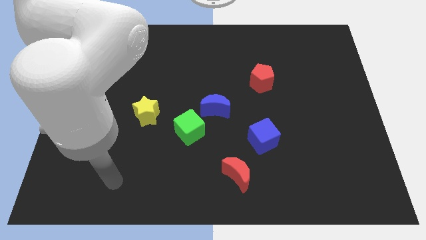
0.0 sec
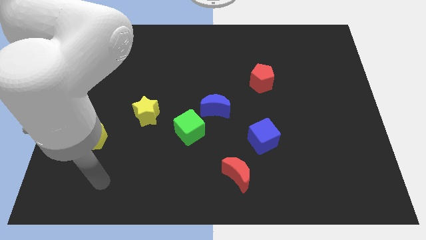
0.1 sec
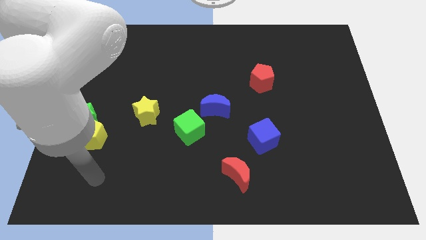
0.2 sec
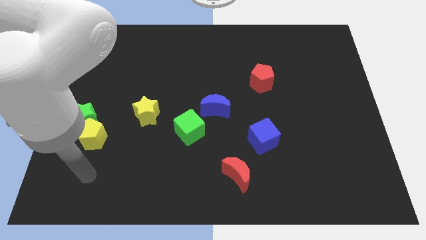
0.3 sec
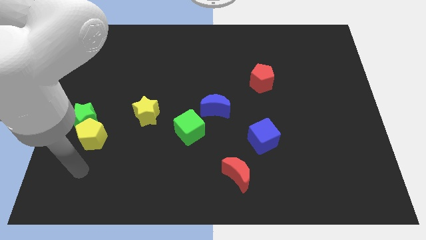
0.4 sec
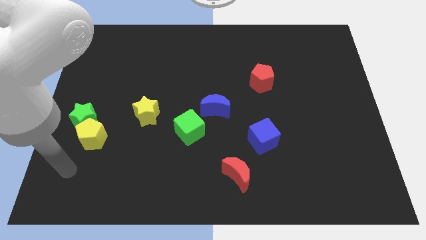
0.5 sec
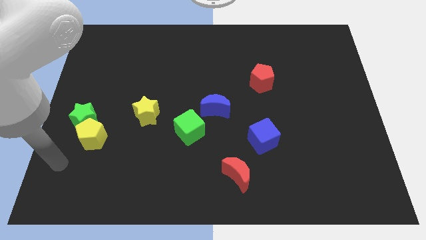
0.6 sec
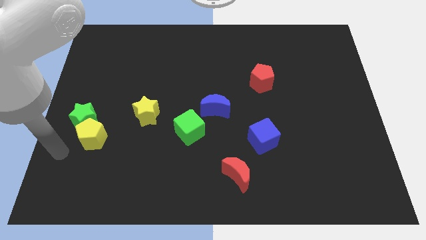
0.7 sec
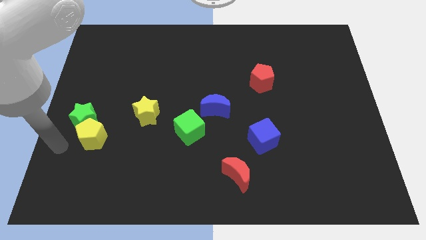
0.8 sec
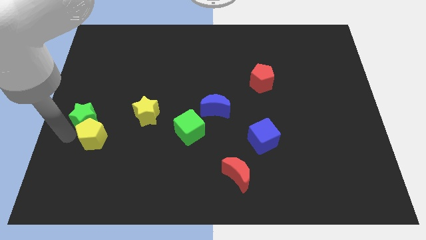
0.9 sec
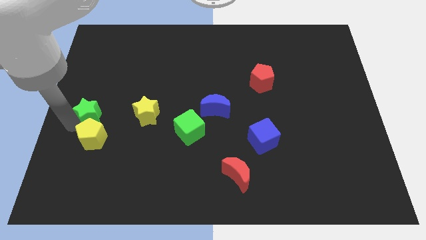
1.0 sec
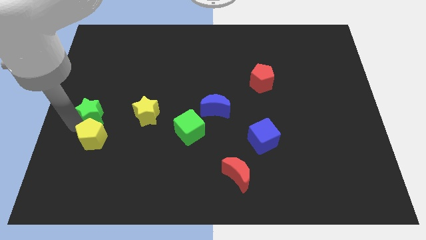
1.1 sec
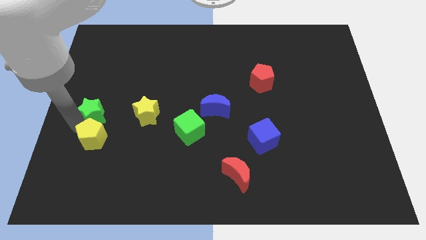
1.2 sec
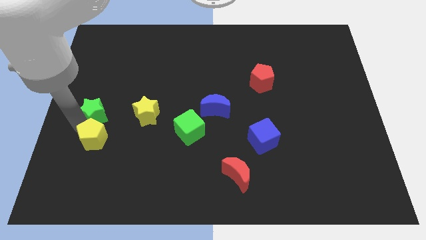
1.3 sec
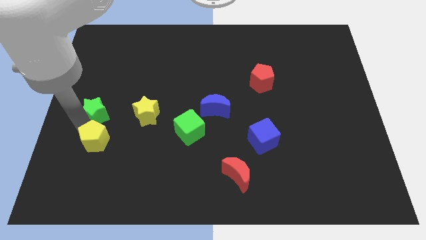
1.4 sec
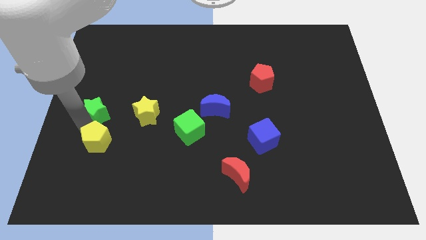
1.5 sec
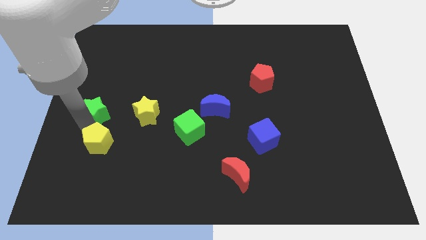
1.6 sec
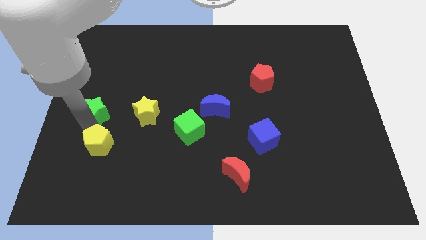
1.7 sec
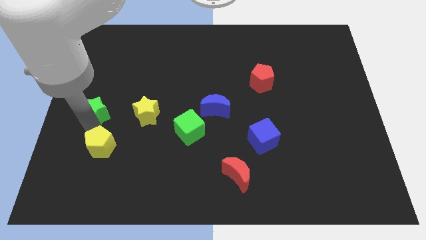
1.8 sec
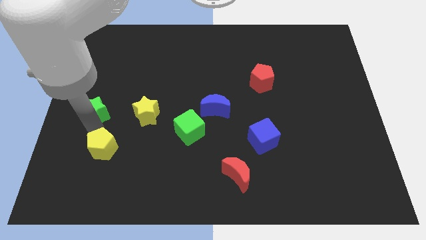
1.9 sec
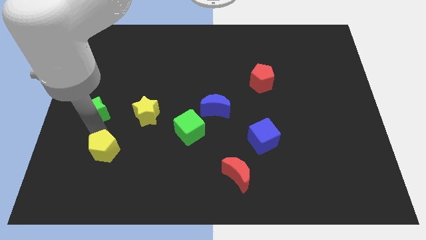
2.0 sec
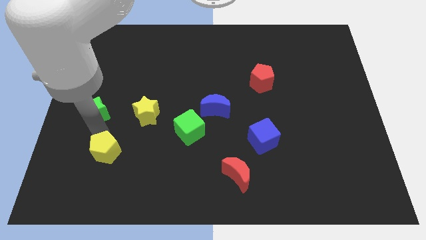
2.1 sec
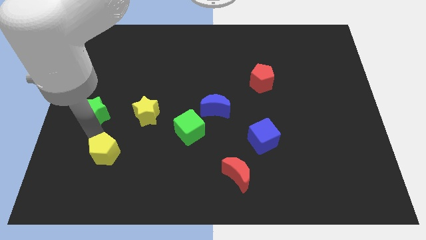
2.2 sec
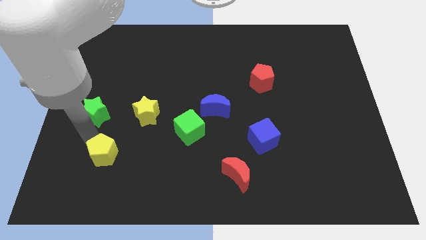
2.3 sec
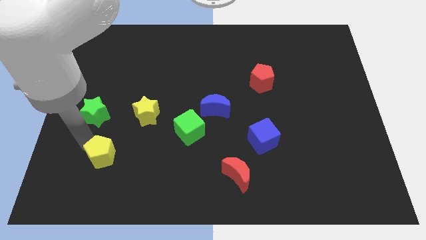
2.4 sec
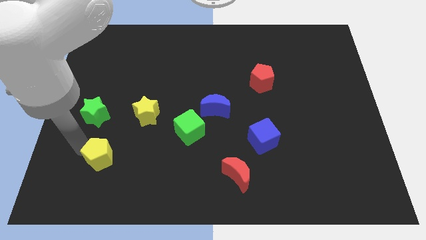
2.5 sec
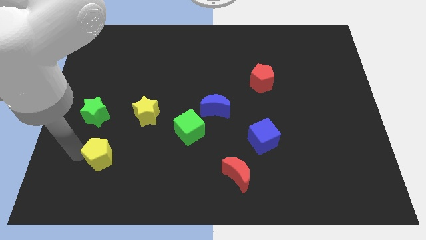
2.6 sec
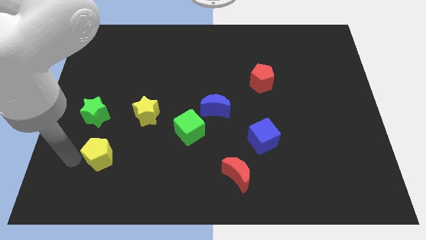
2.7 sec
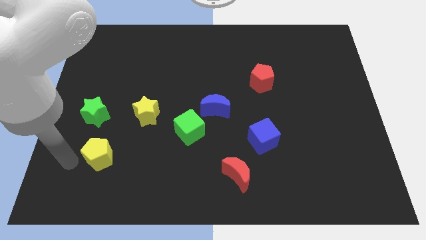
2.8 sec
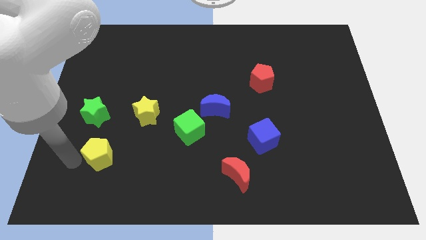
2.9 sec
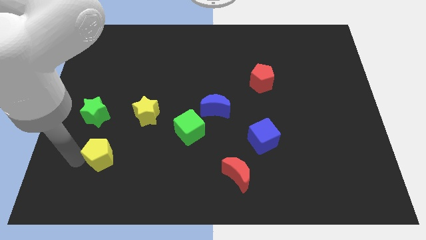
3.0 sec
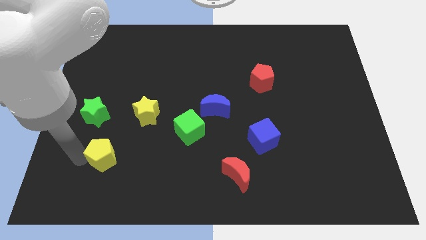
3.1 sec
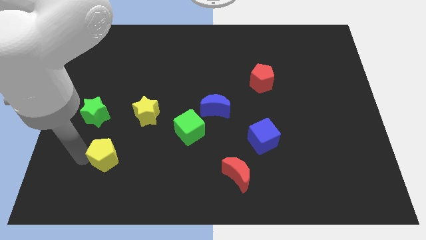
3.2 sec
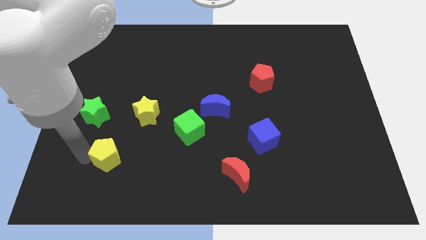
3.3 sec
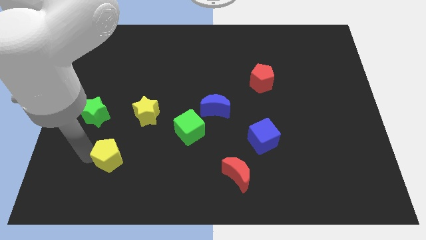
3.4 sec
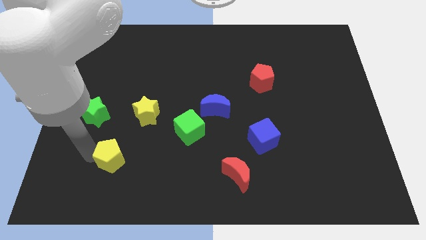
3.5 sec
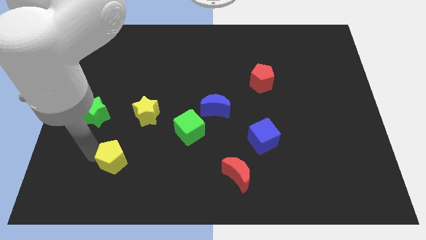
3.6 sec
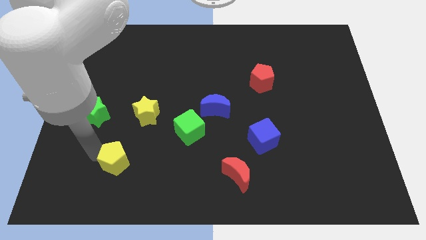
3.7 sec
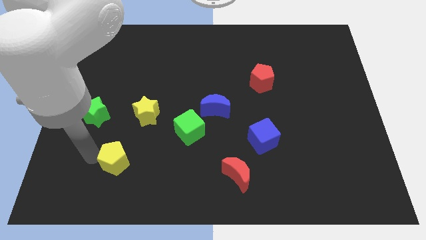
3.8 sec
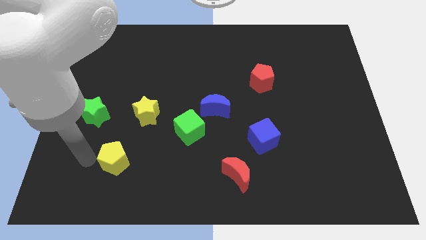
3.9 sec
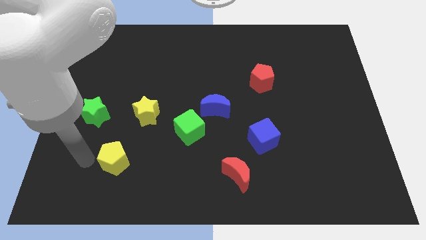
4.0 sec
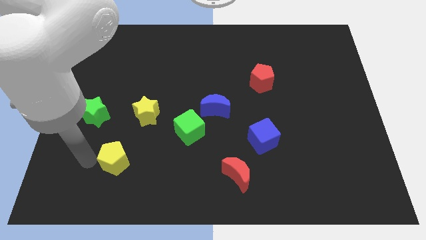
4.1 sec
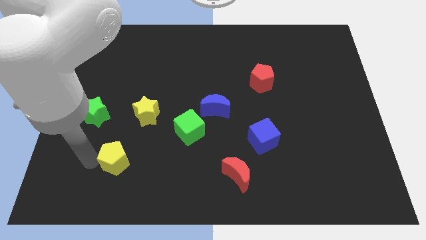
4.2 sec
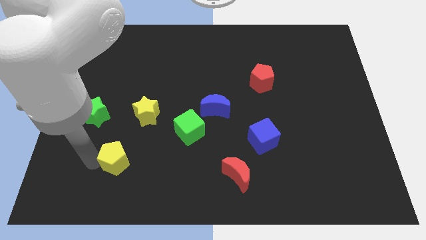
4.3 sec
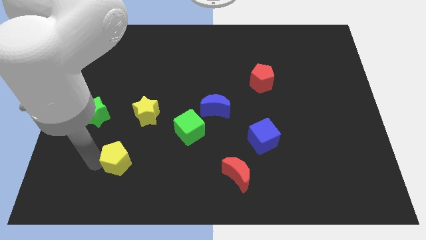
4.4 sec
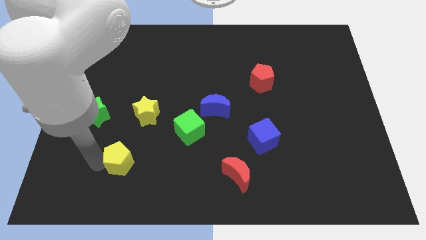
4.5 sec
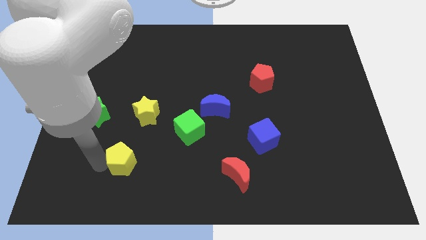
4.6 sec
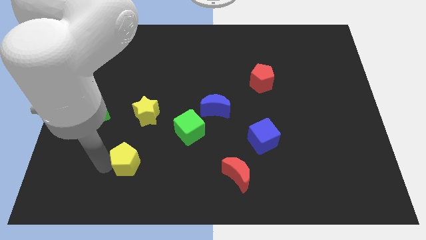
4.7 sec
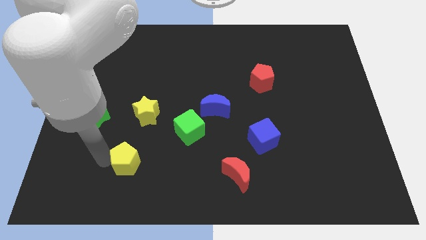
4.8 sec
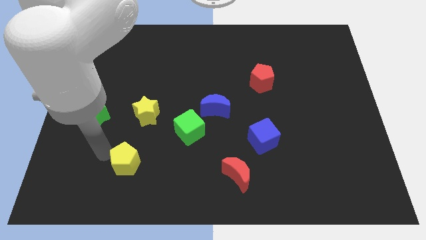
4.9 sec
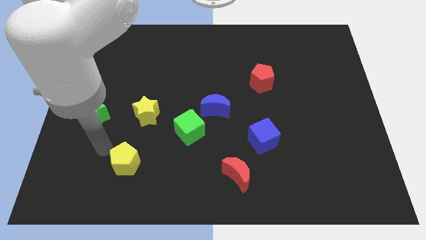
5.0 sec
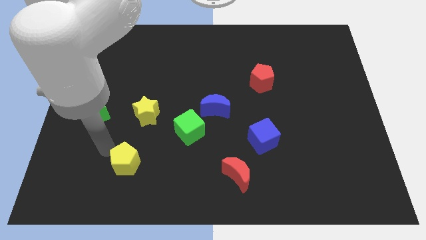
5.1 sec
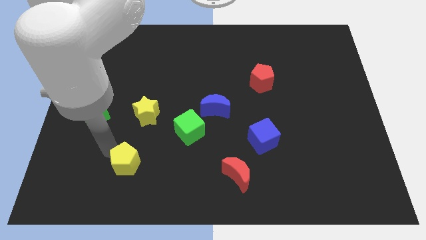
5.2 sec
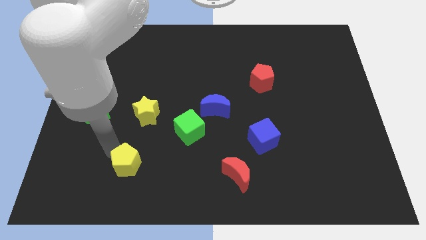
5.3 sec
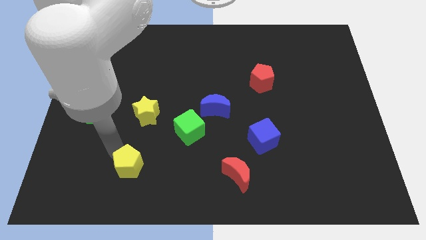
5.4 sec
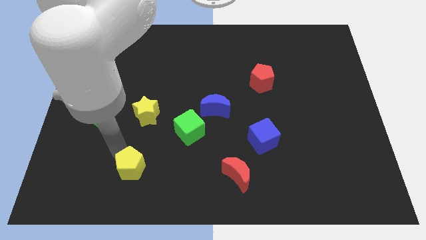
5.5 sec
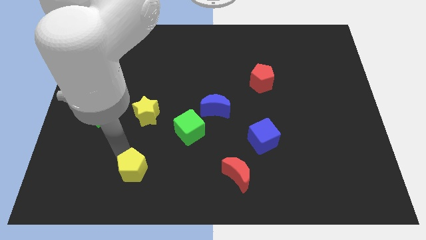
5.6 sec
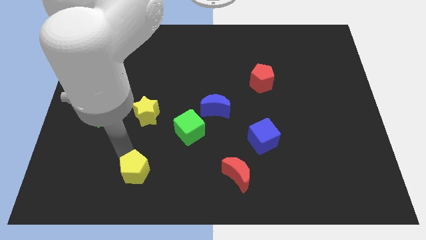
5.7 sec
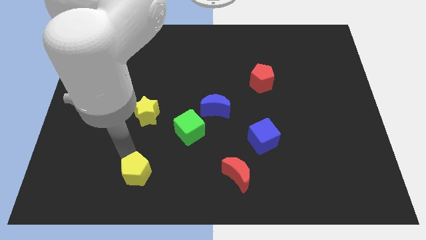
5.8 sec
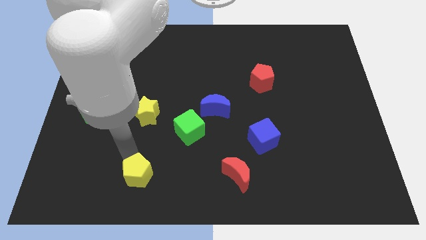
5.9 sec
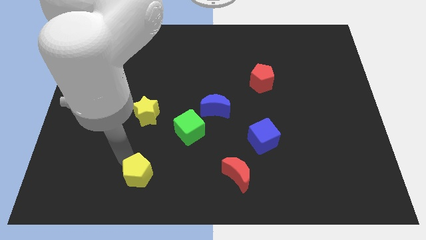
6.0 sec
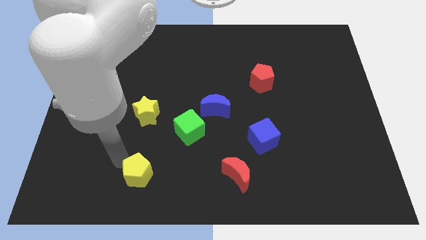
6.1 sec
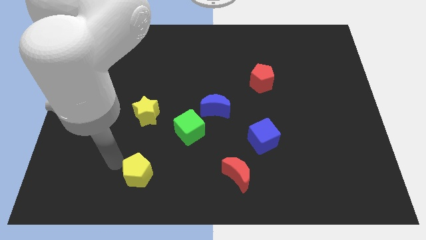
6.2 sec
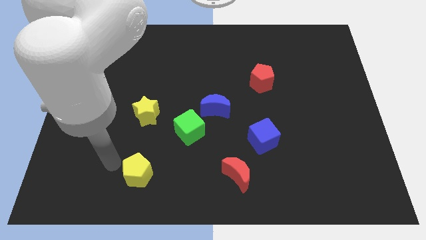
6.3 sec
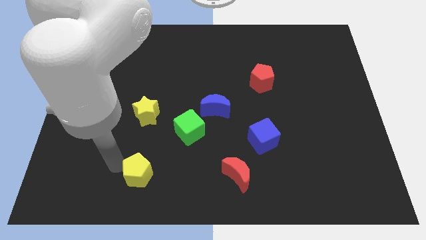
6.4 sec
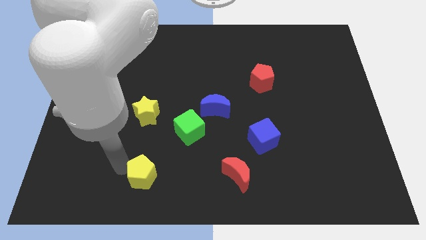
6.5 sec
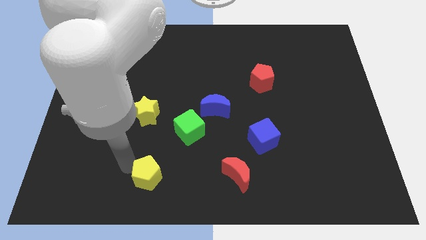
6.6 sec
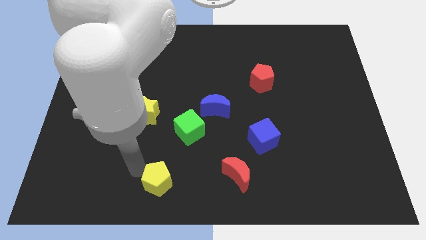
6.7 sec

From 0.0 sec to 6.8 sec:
slide the yellow pentagon to the bottom side

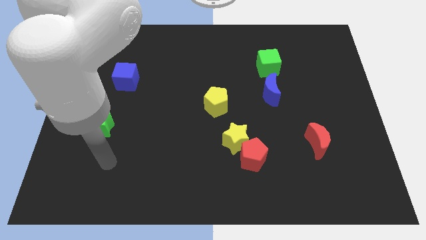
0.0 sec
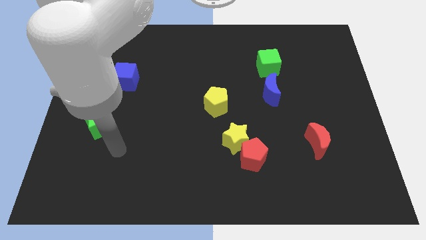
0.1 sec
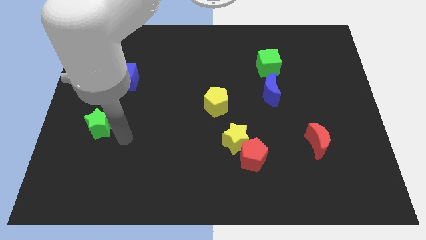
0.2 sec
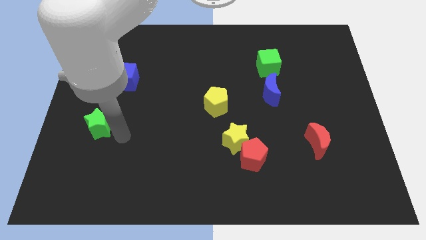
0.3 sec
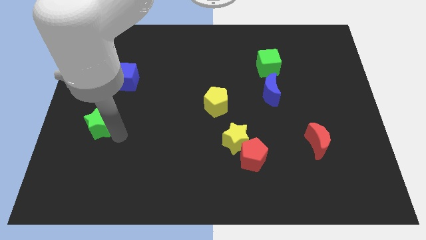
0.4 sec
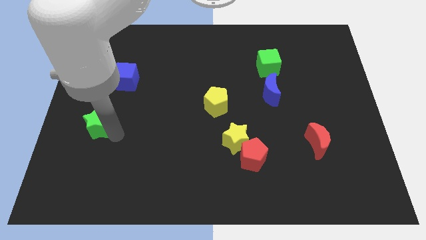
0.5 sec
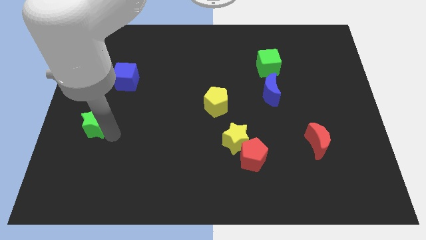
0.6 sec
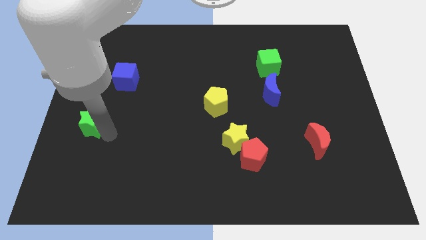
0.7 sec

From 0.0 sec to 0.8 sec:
push the green star to the center left
